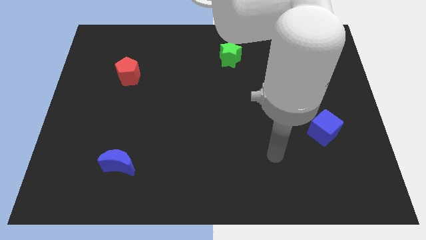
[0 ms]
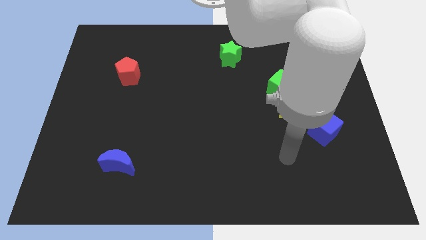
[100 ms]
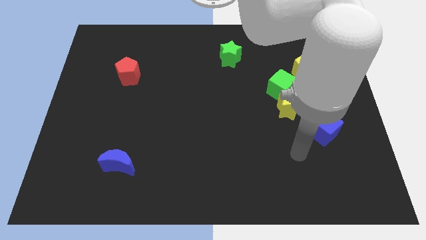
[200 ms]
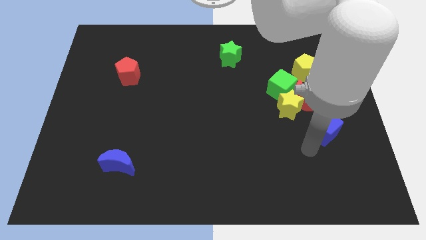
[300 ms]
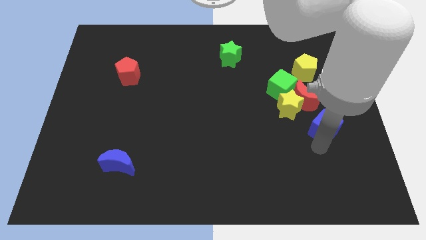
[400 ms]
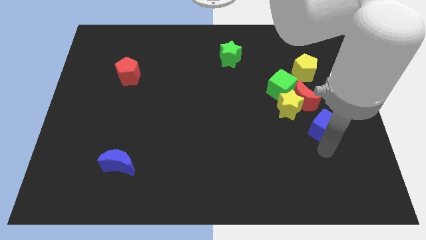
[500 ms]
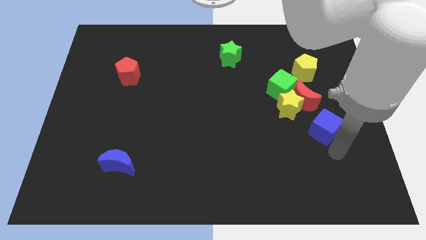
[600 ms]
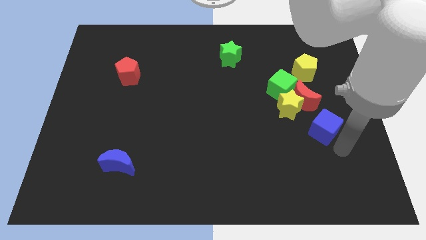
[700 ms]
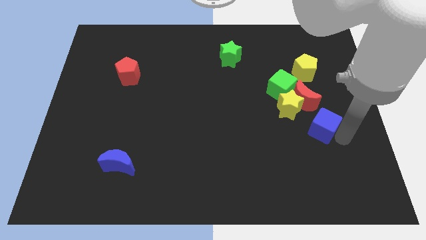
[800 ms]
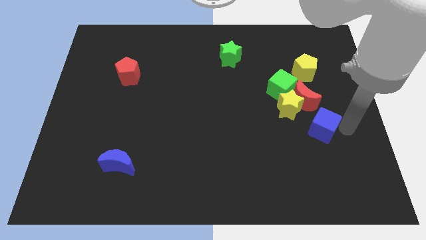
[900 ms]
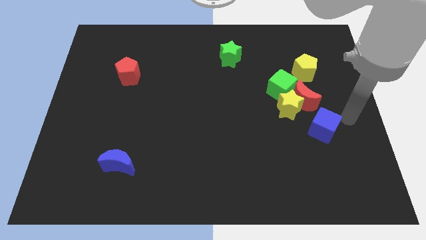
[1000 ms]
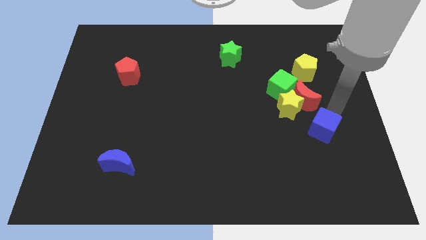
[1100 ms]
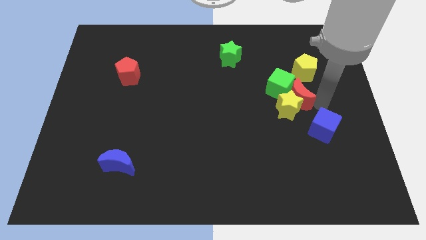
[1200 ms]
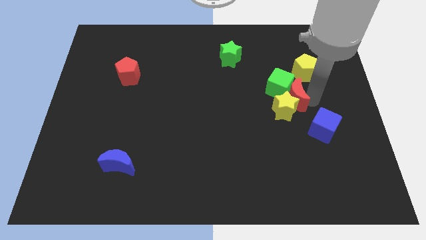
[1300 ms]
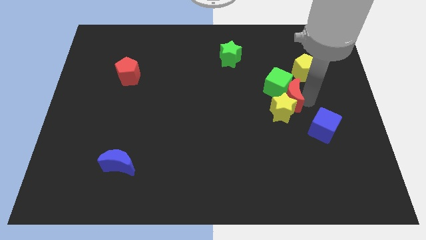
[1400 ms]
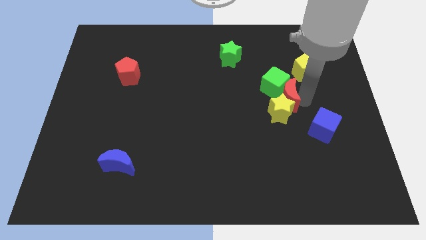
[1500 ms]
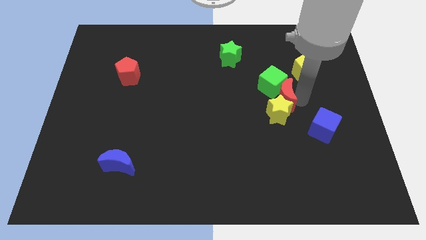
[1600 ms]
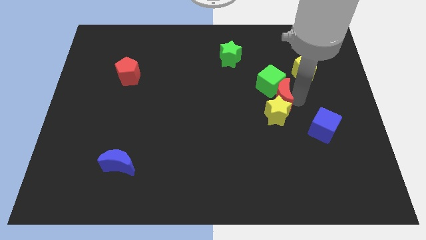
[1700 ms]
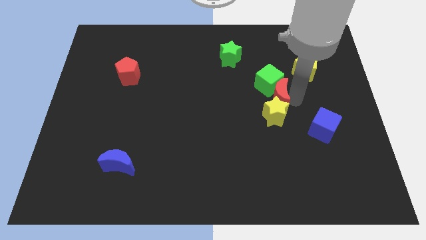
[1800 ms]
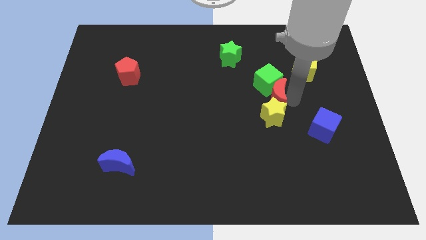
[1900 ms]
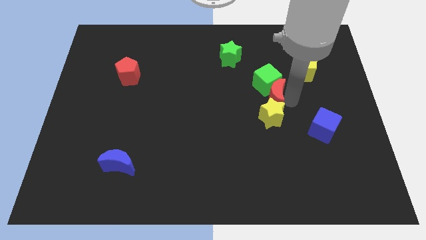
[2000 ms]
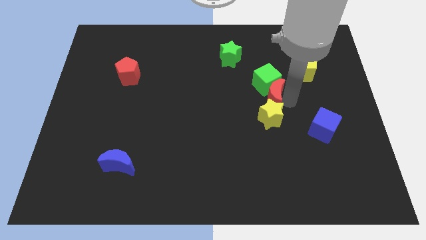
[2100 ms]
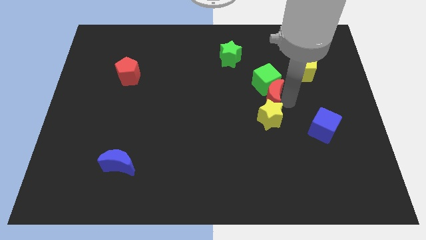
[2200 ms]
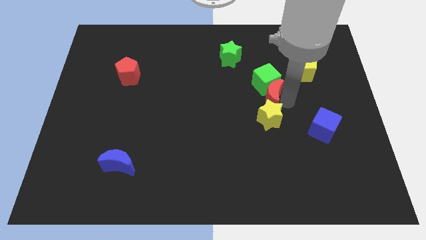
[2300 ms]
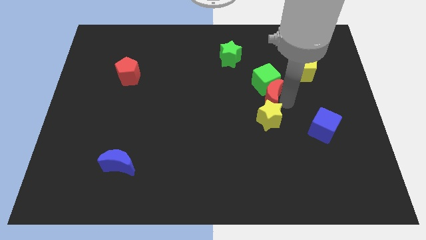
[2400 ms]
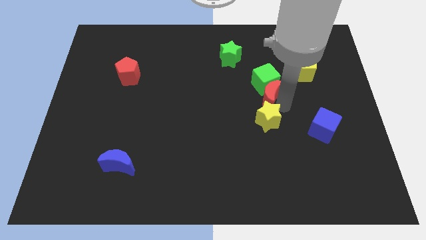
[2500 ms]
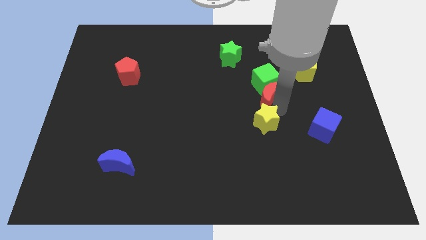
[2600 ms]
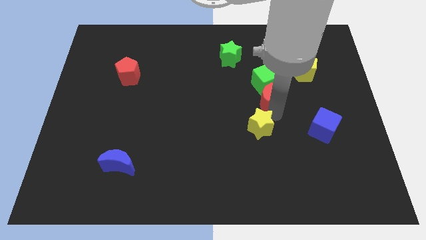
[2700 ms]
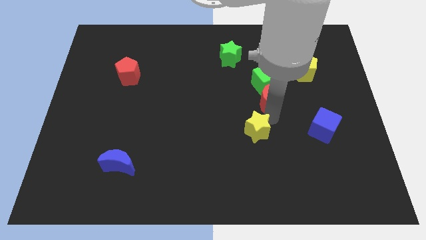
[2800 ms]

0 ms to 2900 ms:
separate the yellow star from the group

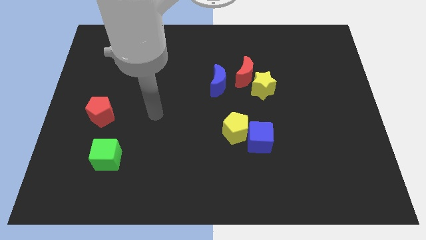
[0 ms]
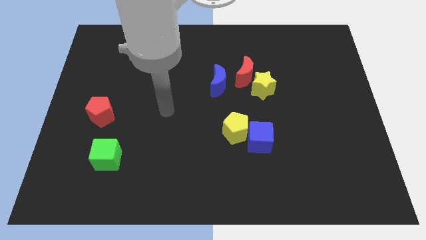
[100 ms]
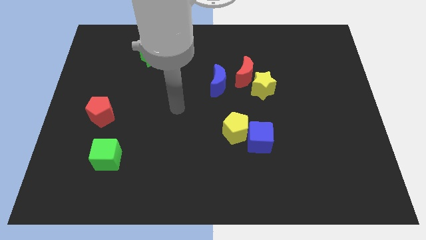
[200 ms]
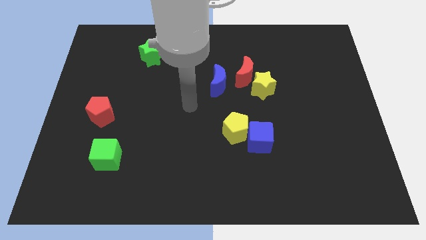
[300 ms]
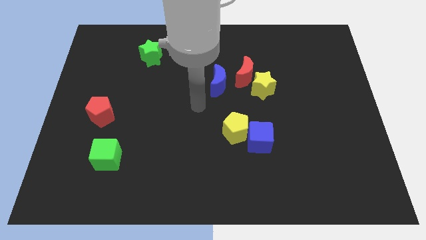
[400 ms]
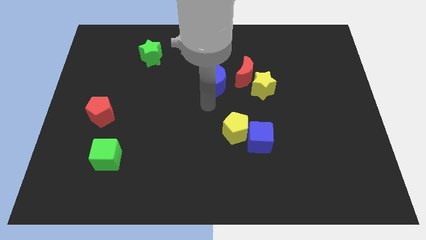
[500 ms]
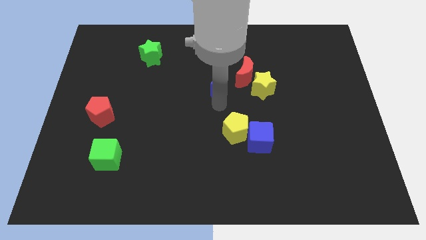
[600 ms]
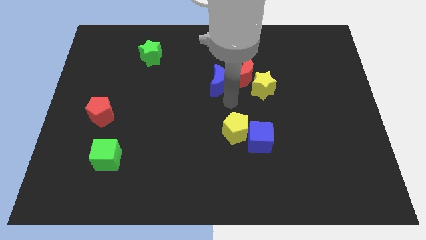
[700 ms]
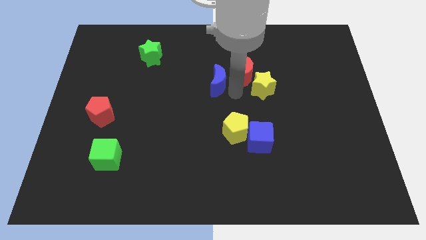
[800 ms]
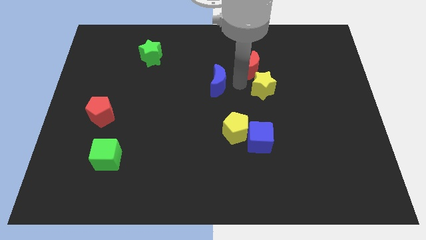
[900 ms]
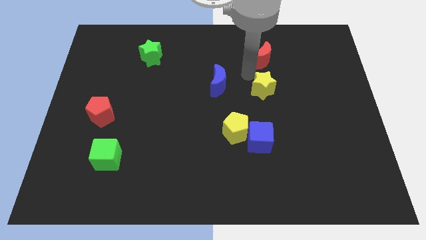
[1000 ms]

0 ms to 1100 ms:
pull the yellow star apart from the red moon

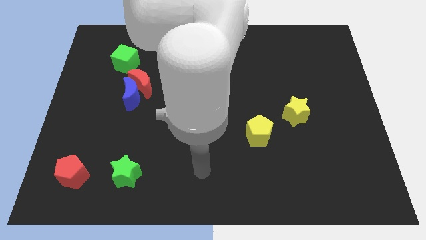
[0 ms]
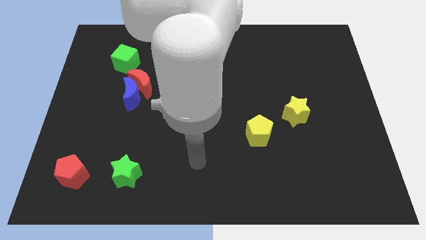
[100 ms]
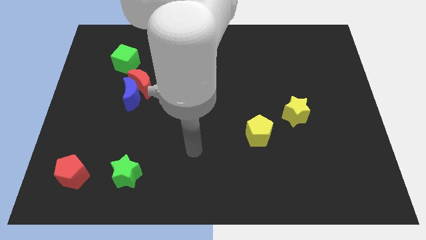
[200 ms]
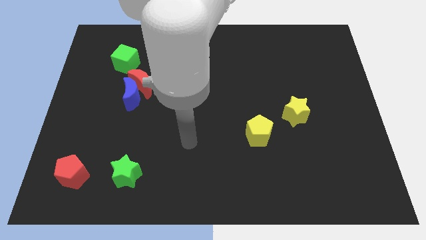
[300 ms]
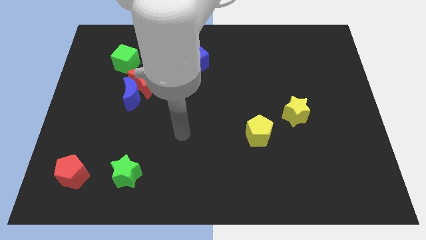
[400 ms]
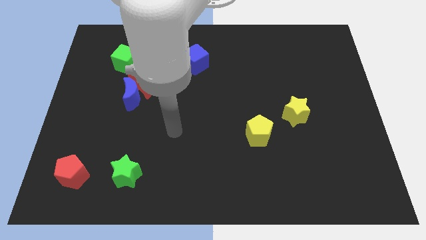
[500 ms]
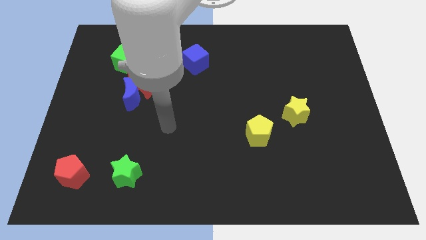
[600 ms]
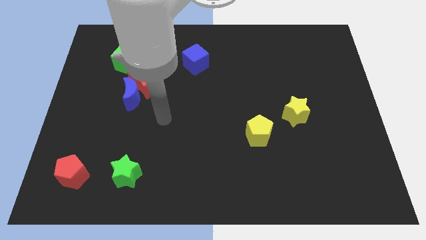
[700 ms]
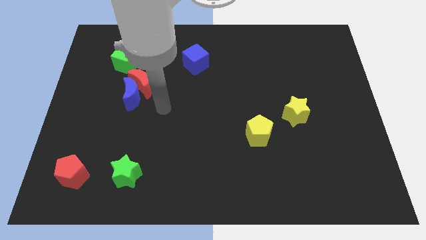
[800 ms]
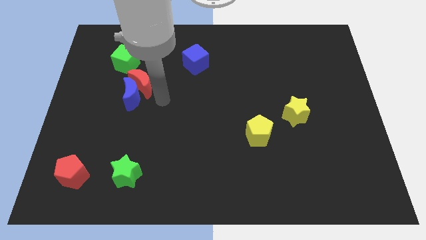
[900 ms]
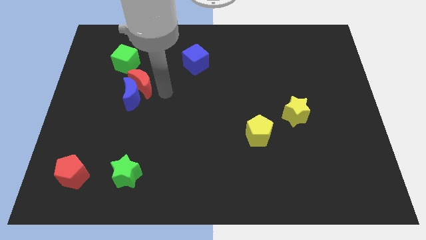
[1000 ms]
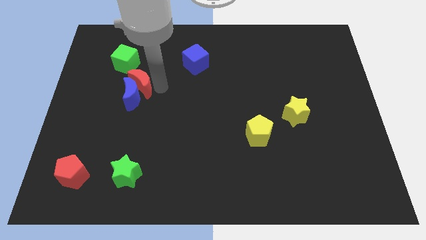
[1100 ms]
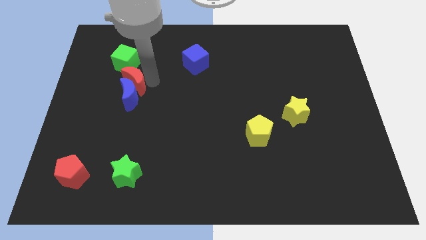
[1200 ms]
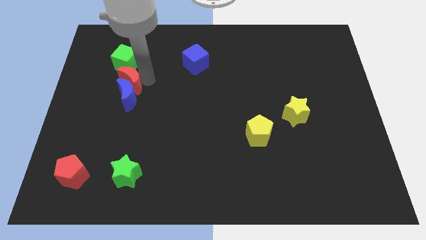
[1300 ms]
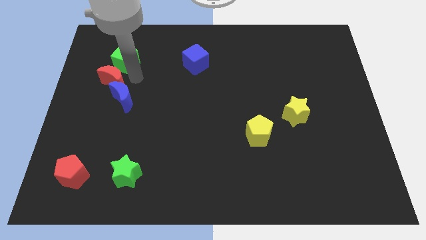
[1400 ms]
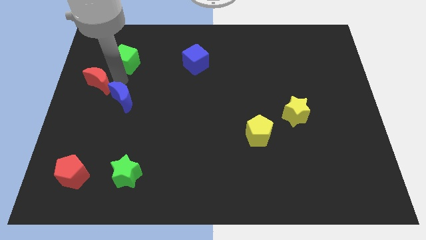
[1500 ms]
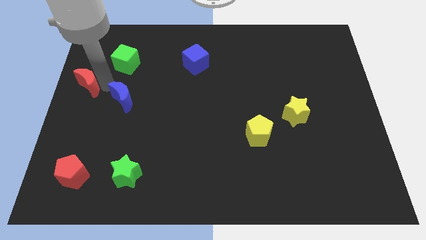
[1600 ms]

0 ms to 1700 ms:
move the blue moon away from the red moon

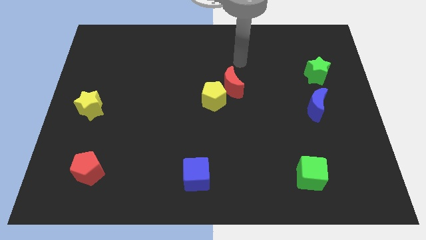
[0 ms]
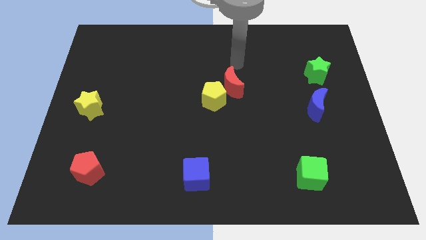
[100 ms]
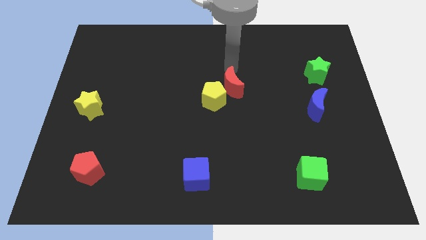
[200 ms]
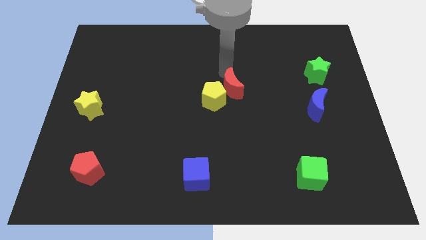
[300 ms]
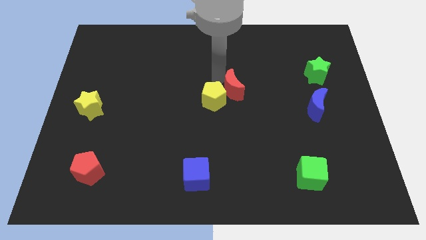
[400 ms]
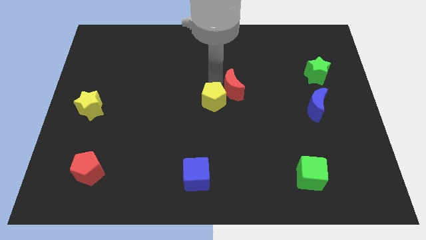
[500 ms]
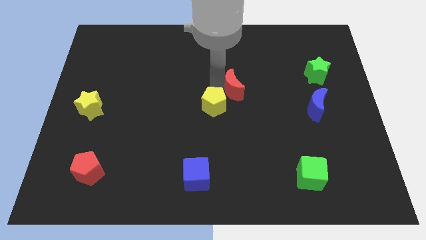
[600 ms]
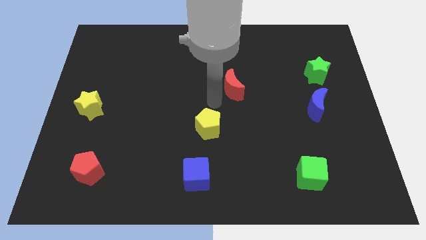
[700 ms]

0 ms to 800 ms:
move the red moon away from the yellow pentagon

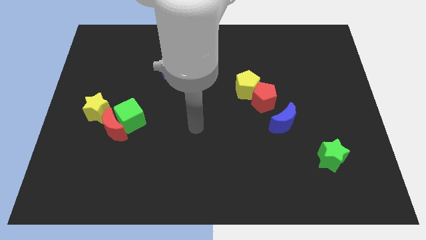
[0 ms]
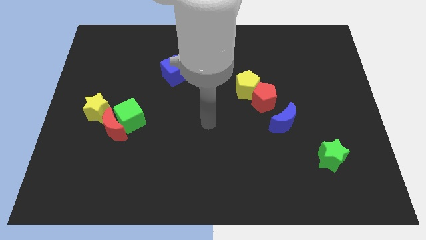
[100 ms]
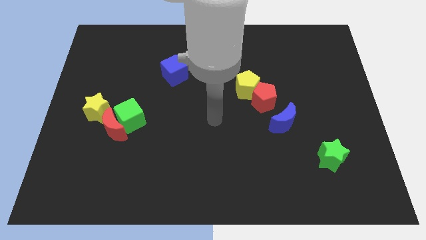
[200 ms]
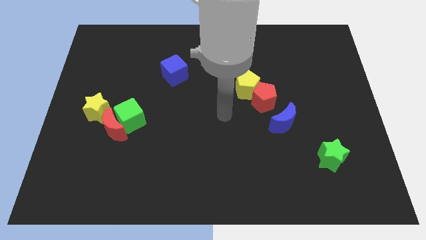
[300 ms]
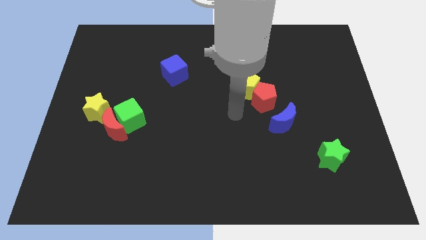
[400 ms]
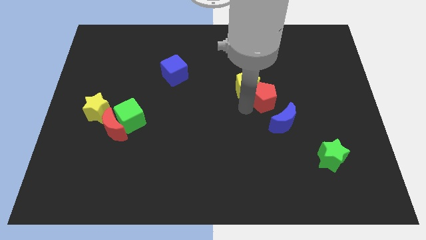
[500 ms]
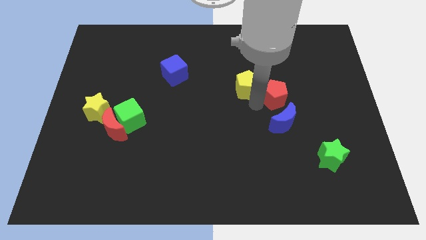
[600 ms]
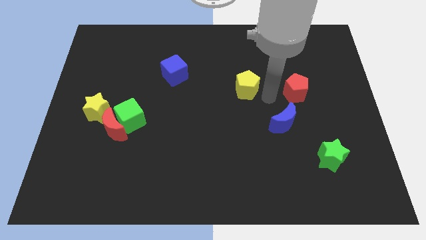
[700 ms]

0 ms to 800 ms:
move the yellow pentagon away from the red pentagon

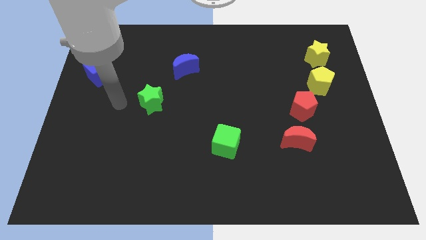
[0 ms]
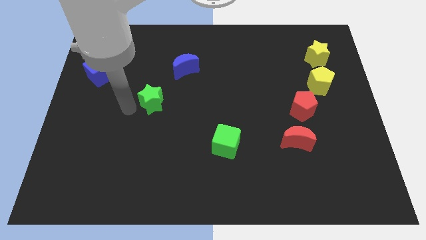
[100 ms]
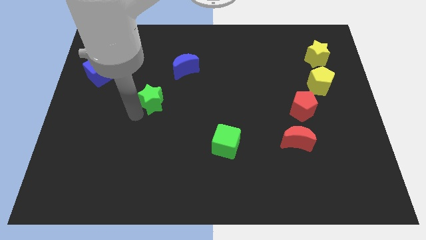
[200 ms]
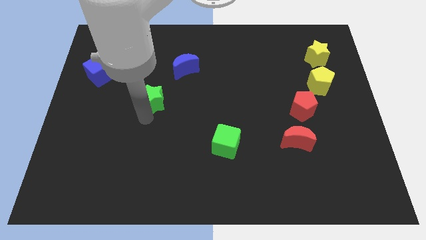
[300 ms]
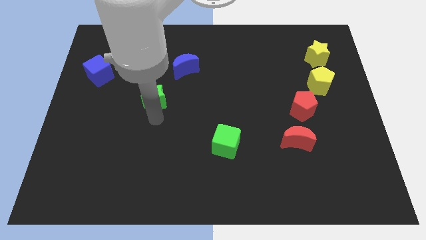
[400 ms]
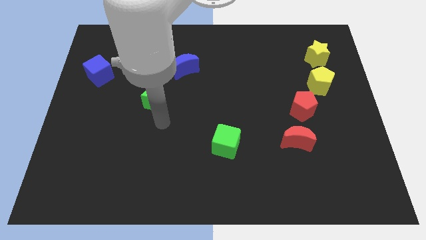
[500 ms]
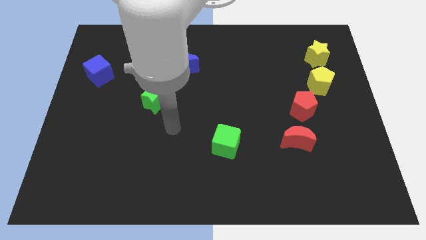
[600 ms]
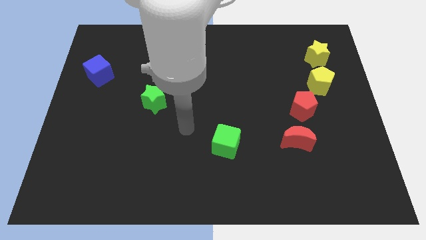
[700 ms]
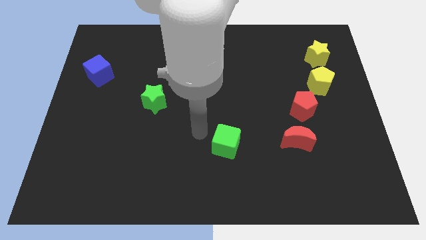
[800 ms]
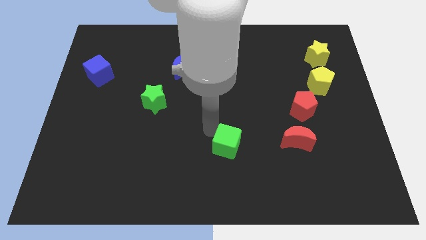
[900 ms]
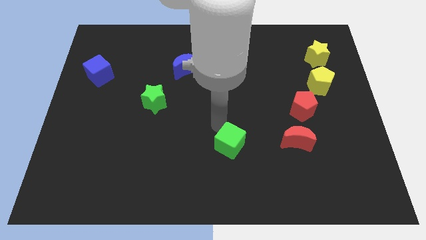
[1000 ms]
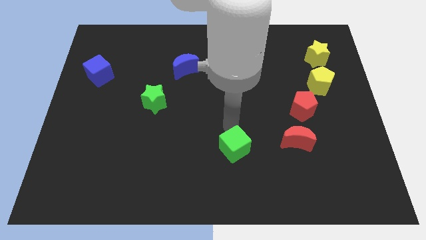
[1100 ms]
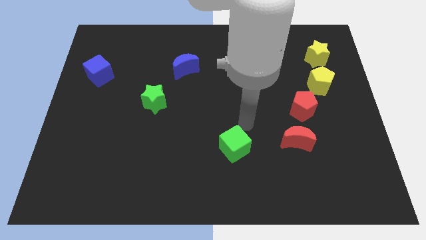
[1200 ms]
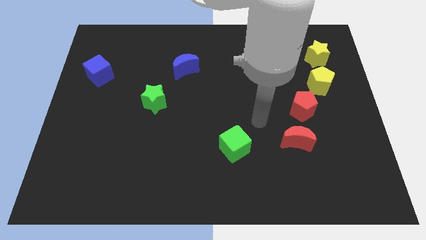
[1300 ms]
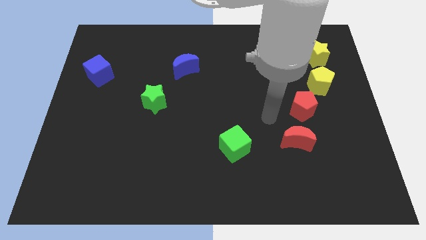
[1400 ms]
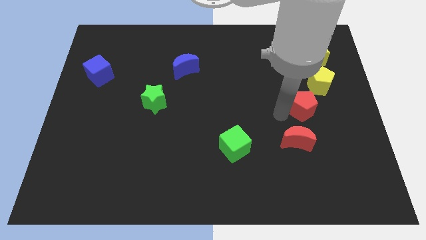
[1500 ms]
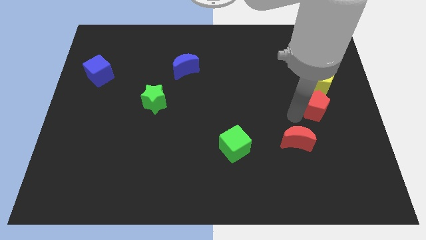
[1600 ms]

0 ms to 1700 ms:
pull the red moon apart from the red pentagon

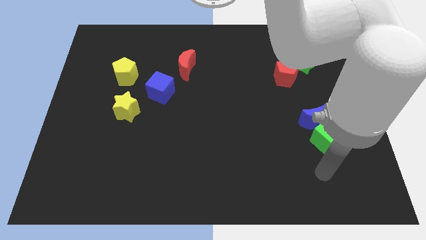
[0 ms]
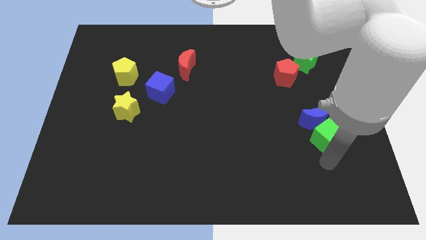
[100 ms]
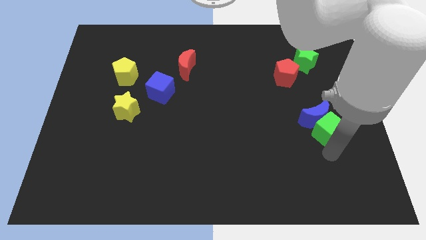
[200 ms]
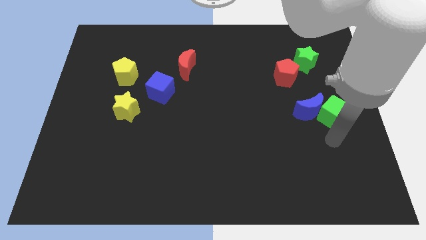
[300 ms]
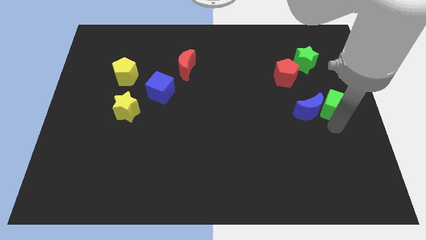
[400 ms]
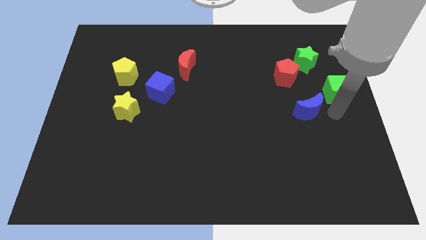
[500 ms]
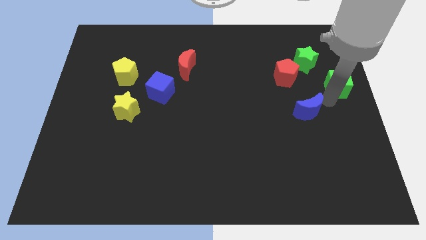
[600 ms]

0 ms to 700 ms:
move the blue moon away from the green cube
